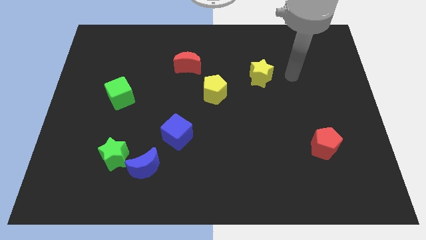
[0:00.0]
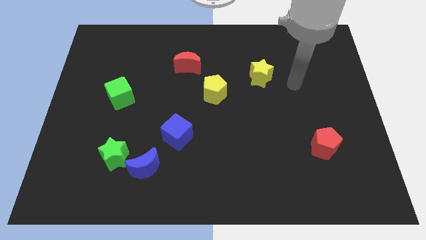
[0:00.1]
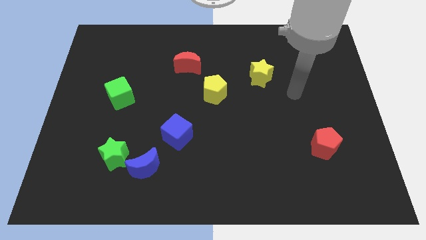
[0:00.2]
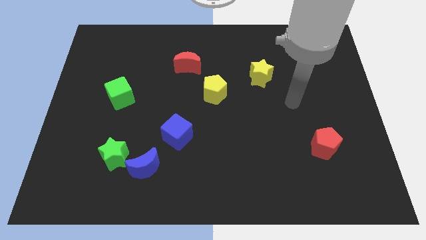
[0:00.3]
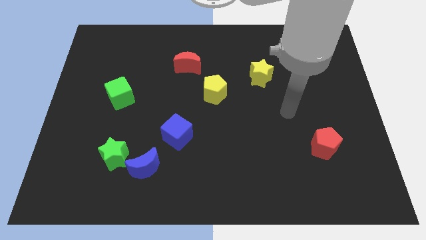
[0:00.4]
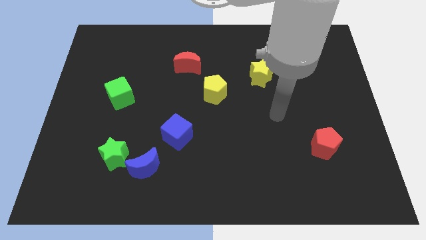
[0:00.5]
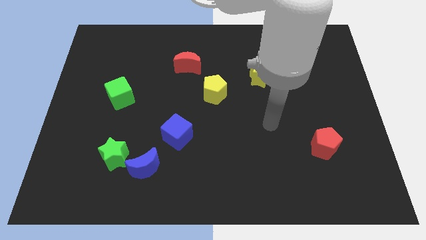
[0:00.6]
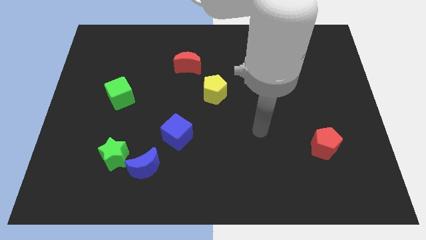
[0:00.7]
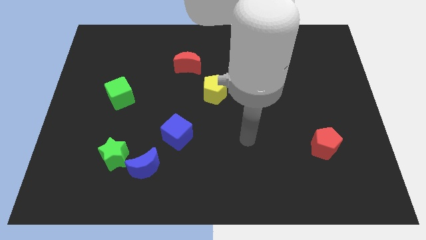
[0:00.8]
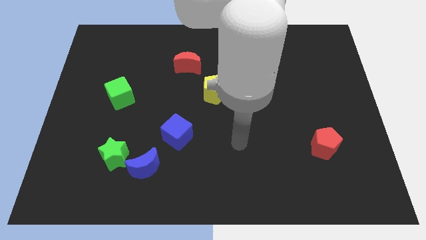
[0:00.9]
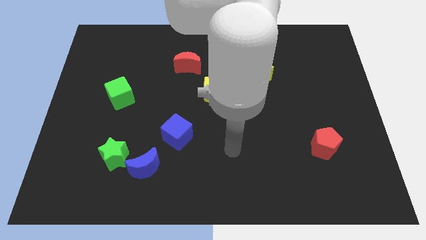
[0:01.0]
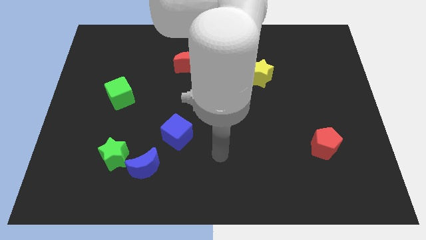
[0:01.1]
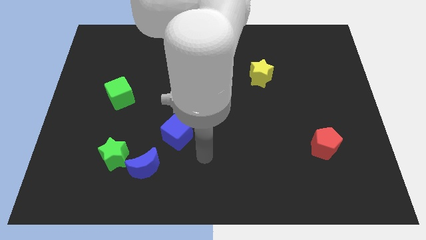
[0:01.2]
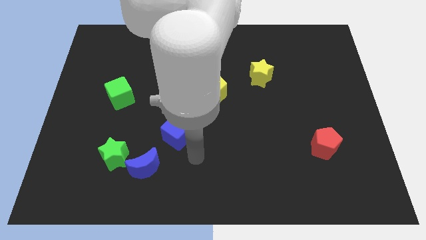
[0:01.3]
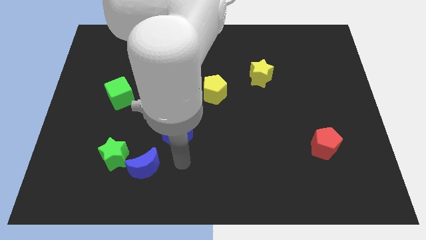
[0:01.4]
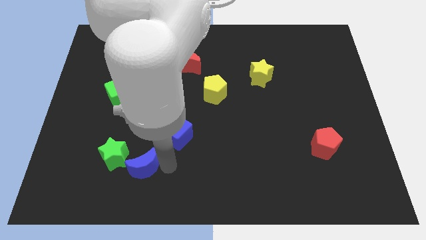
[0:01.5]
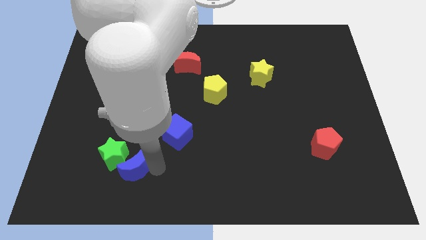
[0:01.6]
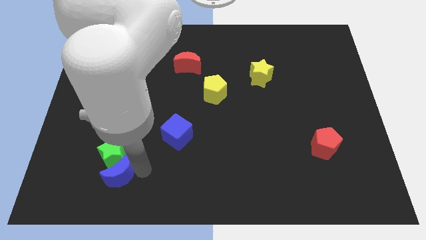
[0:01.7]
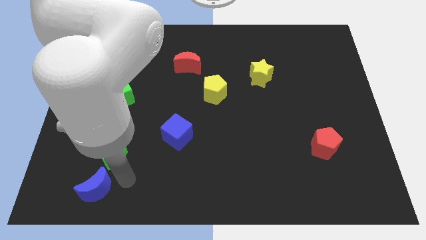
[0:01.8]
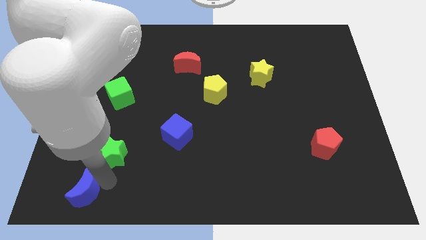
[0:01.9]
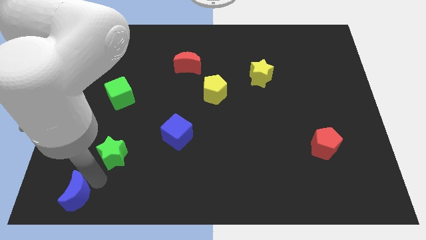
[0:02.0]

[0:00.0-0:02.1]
move the green star away from the blue moon

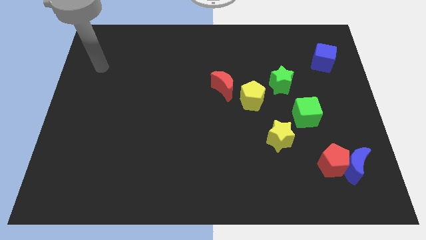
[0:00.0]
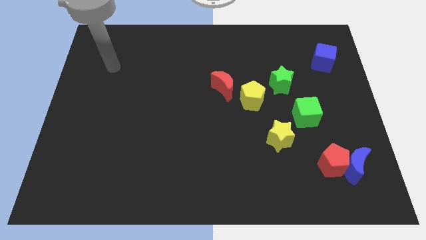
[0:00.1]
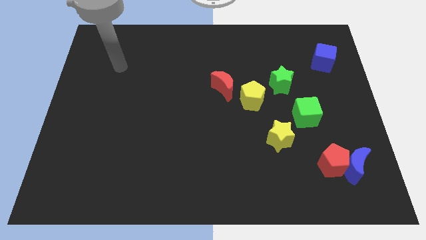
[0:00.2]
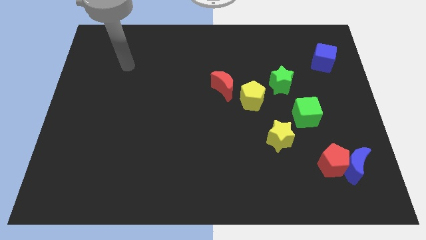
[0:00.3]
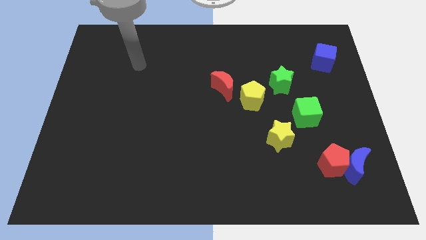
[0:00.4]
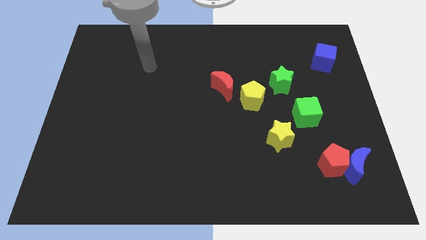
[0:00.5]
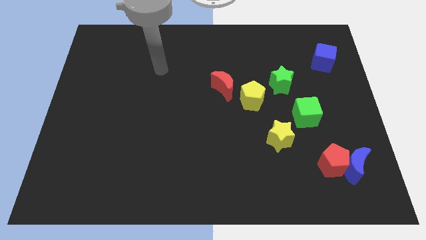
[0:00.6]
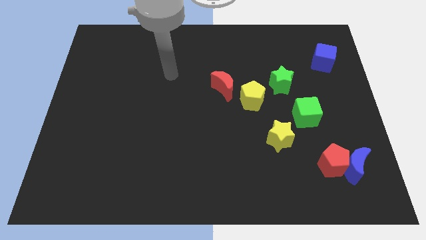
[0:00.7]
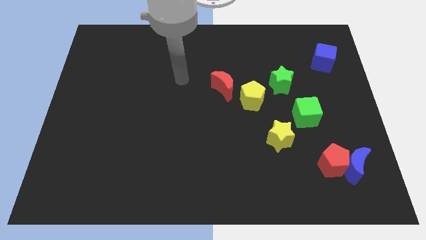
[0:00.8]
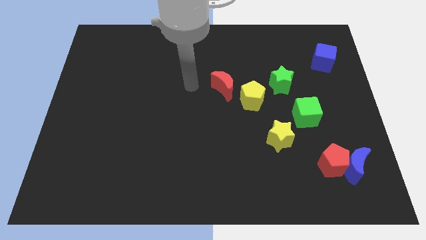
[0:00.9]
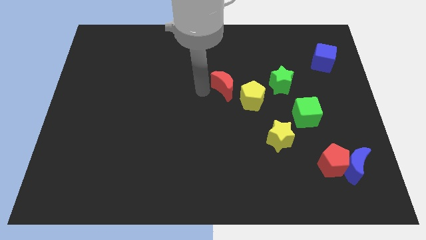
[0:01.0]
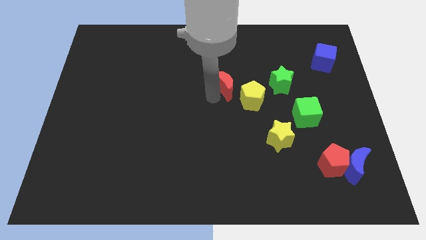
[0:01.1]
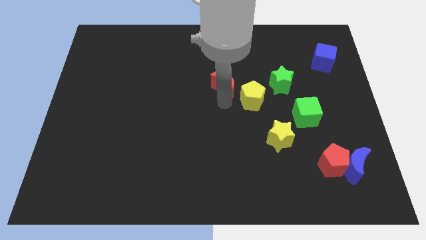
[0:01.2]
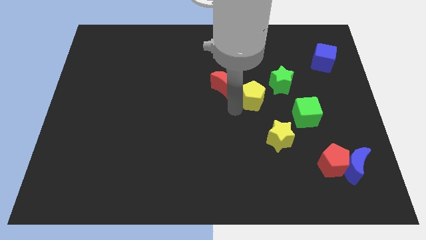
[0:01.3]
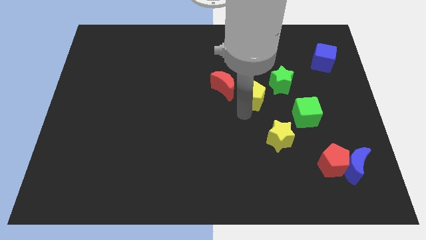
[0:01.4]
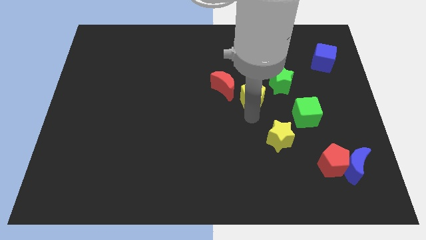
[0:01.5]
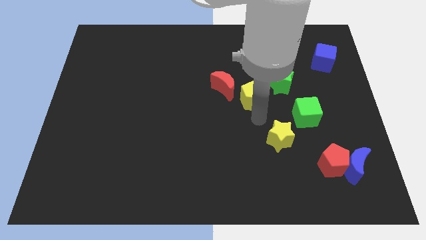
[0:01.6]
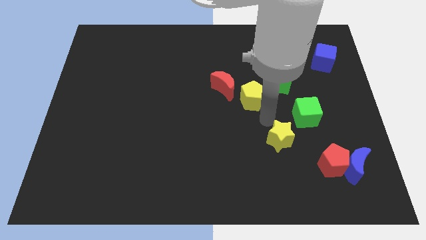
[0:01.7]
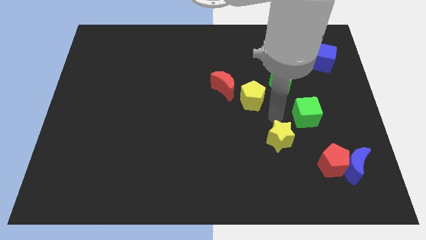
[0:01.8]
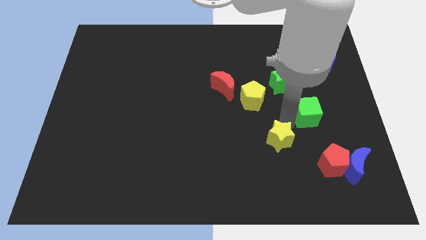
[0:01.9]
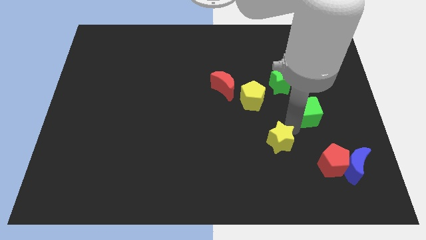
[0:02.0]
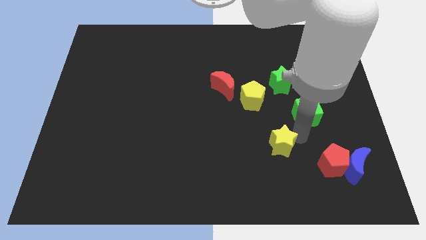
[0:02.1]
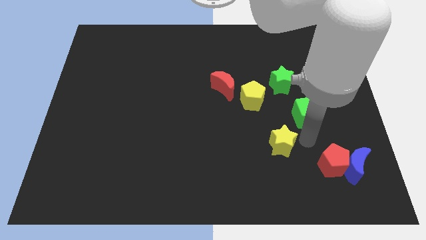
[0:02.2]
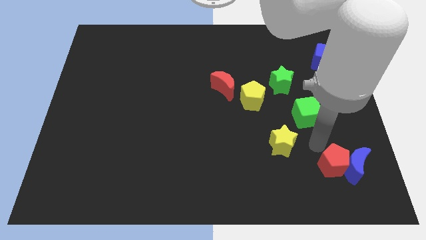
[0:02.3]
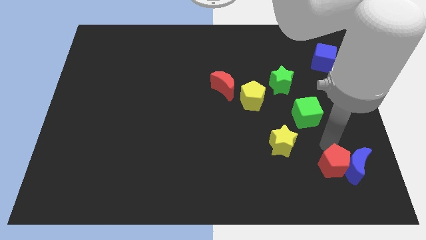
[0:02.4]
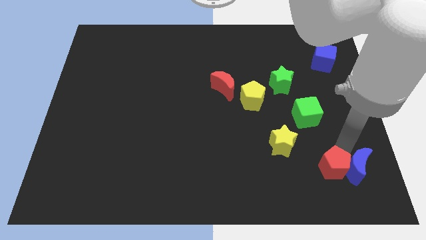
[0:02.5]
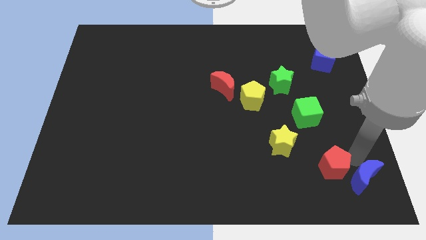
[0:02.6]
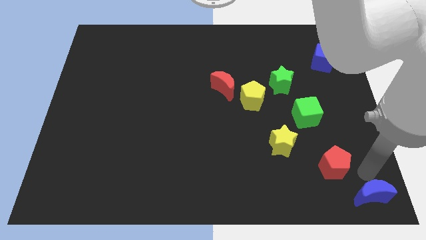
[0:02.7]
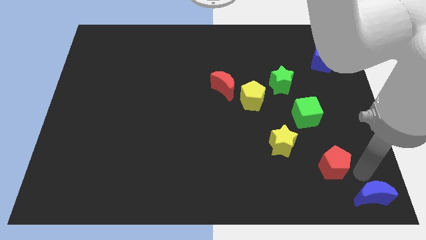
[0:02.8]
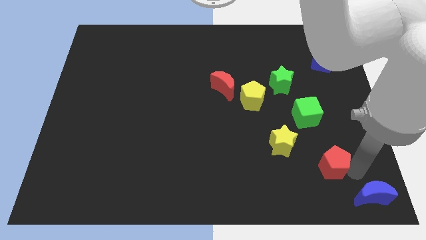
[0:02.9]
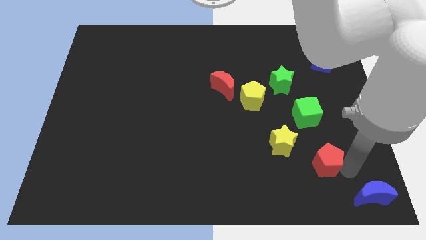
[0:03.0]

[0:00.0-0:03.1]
pull the red pentagon apart from the blue moon

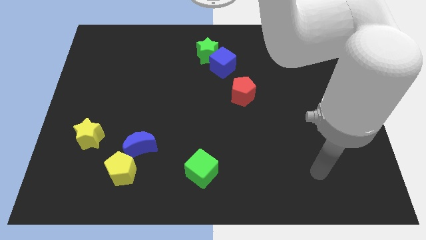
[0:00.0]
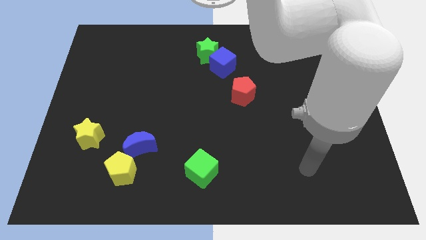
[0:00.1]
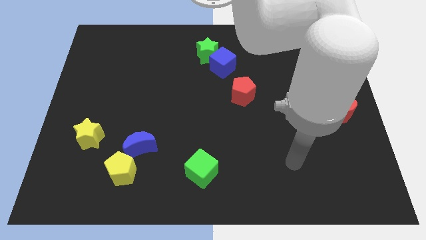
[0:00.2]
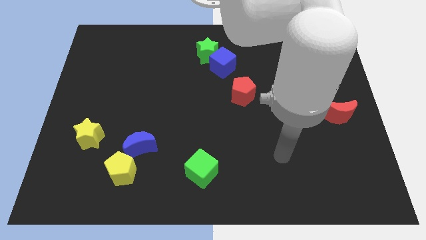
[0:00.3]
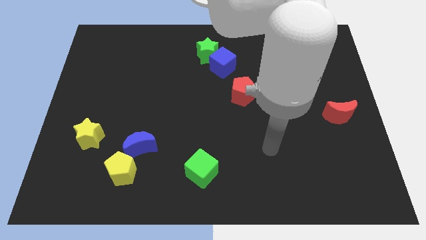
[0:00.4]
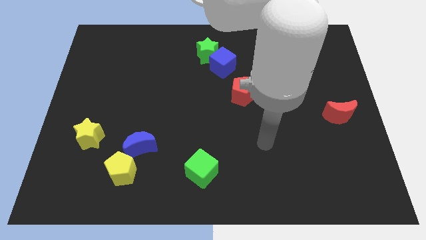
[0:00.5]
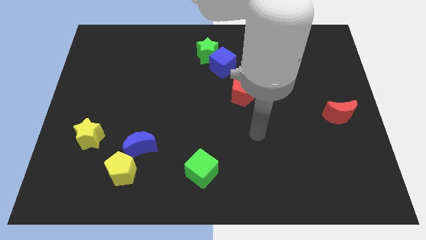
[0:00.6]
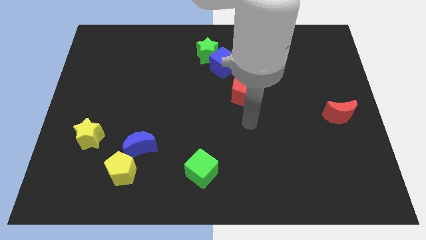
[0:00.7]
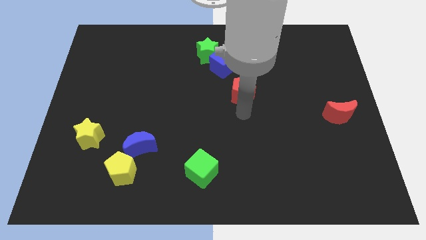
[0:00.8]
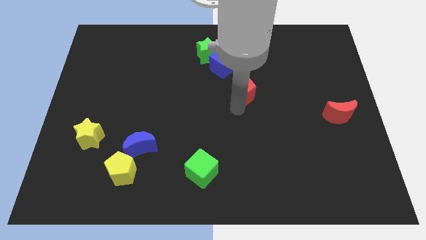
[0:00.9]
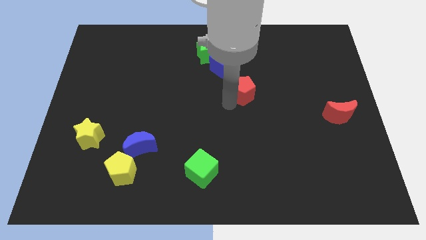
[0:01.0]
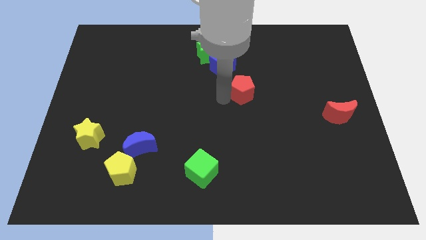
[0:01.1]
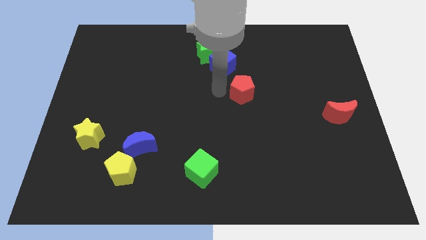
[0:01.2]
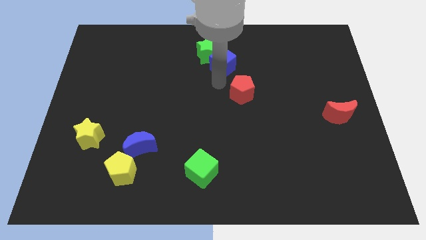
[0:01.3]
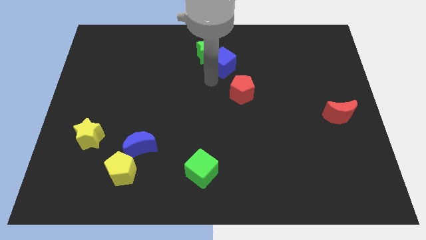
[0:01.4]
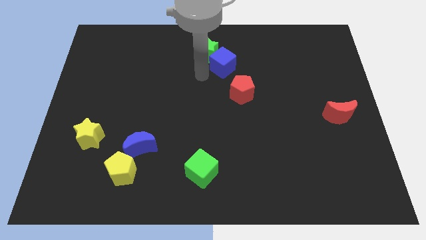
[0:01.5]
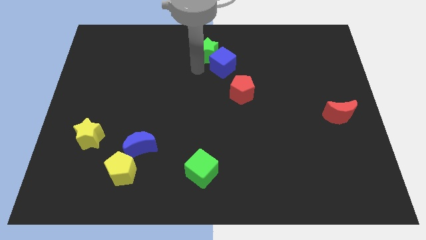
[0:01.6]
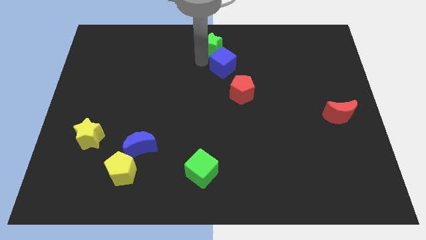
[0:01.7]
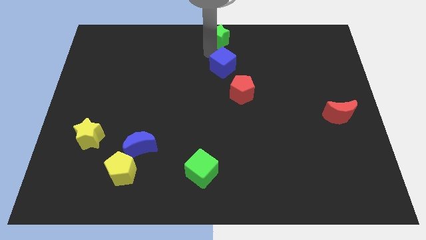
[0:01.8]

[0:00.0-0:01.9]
move the blue cube away from the green star

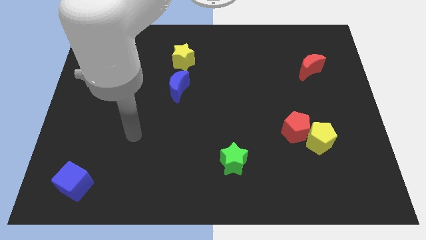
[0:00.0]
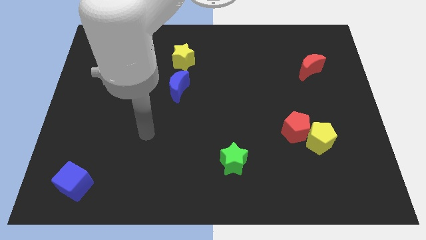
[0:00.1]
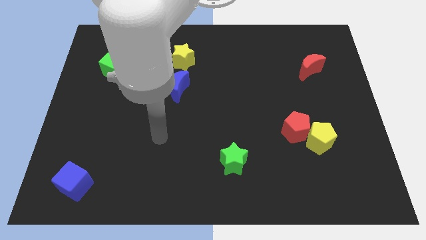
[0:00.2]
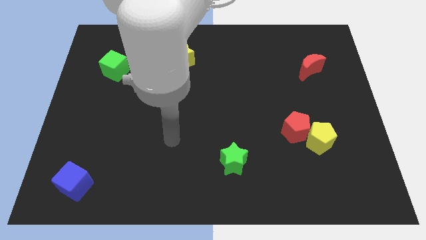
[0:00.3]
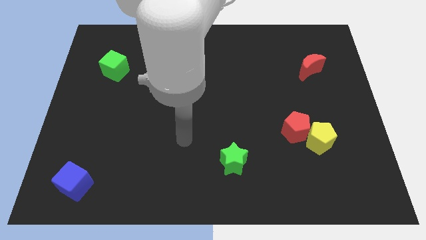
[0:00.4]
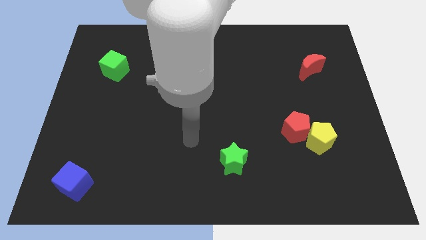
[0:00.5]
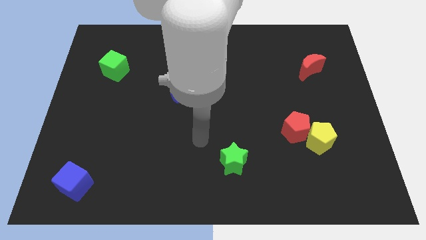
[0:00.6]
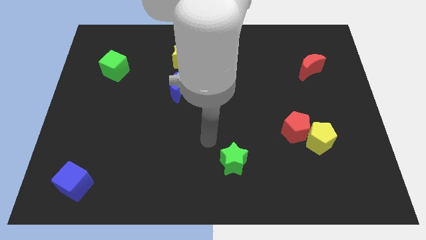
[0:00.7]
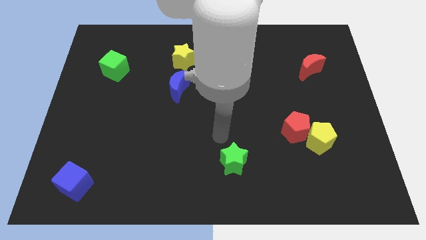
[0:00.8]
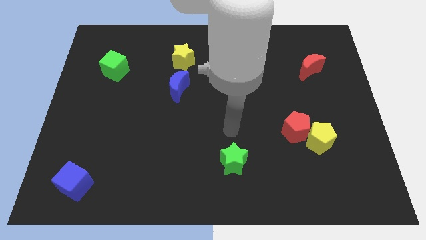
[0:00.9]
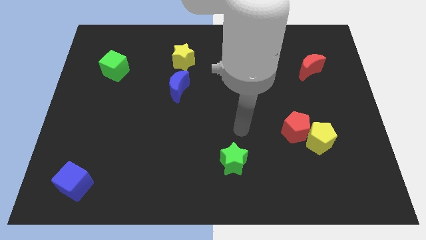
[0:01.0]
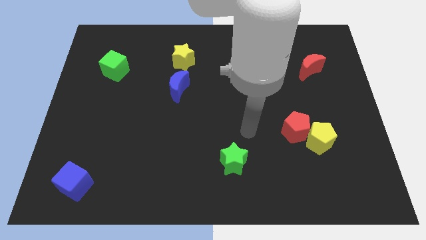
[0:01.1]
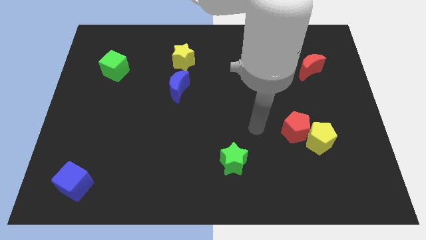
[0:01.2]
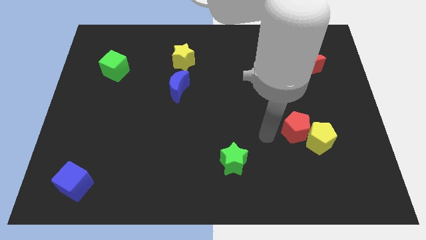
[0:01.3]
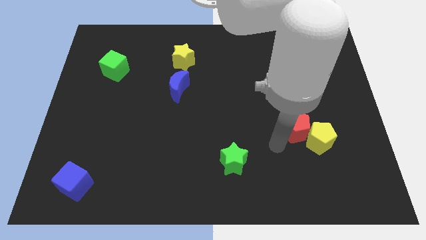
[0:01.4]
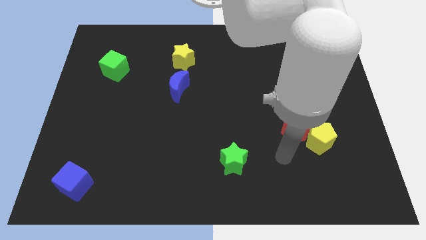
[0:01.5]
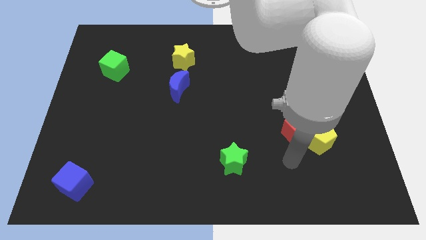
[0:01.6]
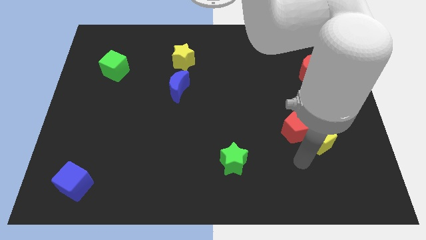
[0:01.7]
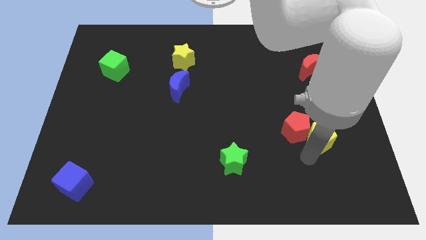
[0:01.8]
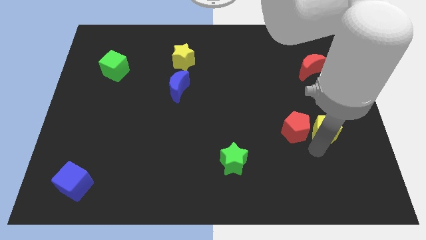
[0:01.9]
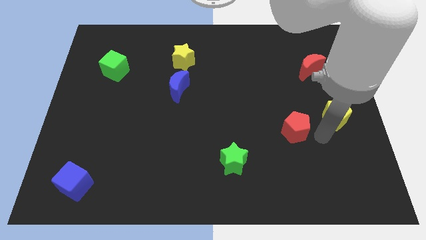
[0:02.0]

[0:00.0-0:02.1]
move the red pentagon away from the yellow pentagon

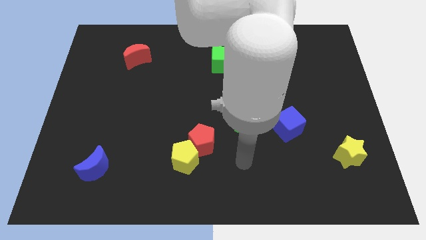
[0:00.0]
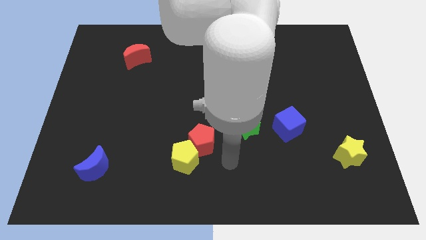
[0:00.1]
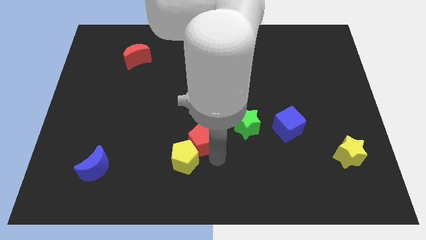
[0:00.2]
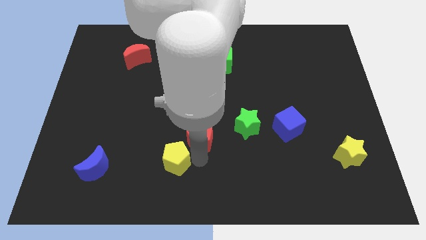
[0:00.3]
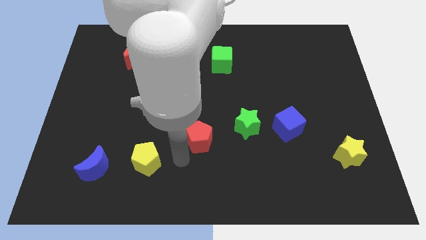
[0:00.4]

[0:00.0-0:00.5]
separate the red pentagon from the yellow pentagon
